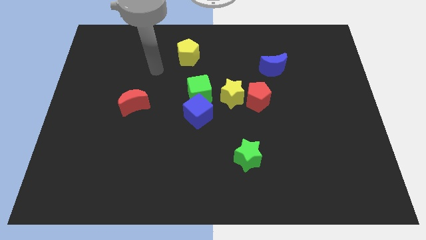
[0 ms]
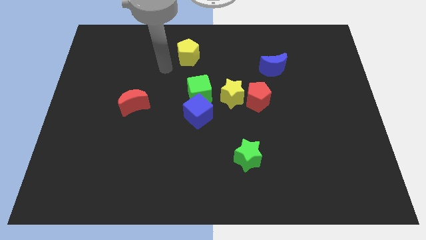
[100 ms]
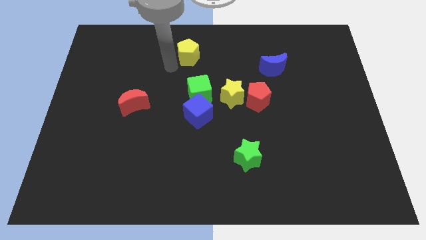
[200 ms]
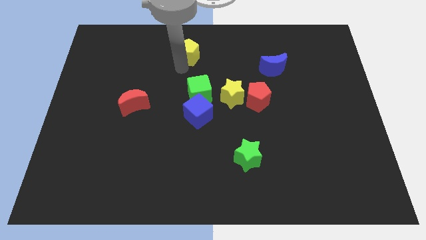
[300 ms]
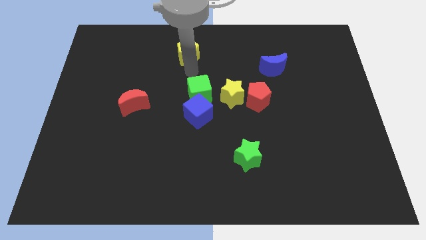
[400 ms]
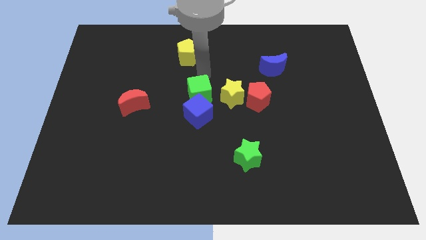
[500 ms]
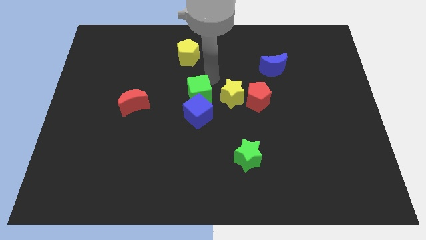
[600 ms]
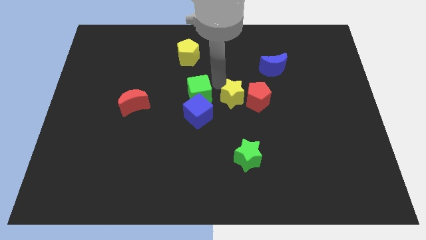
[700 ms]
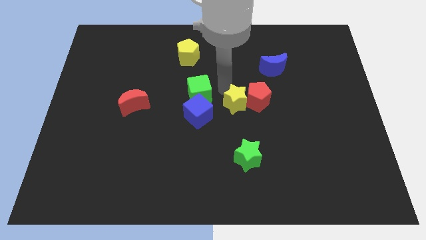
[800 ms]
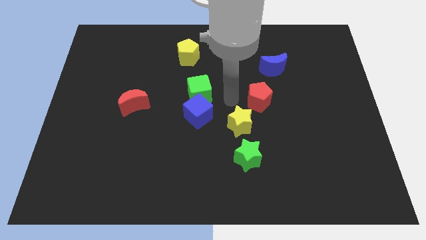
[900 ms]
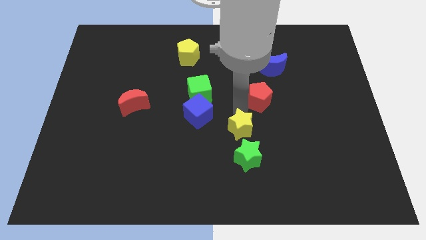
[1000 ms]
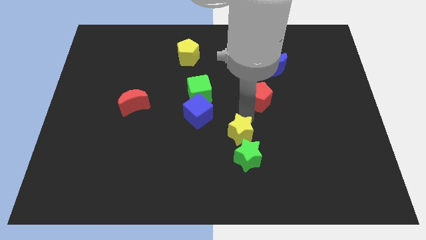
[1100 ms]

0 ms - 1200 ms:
move the red pentagon away from the yellow star

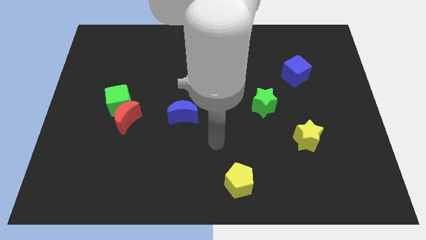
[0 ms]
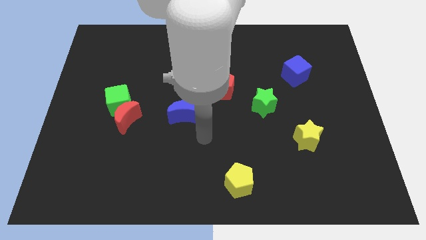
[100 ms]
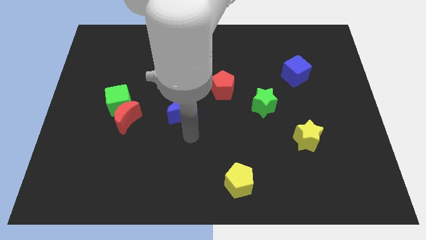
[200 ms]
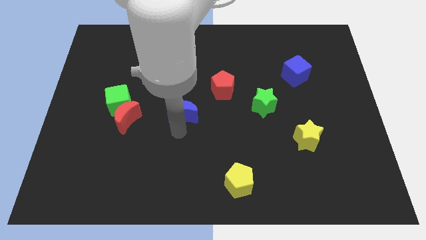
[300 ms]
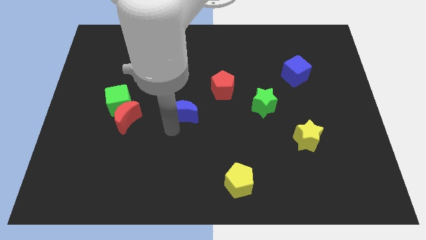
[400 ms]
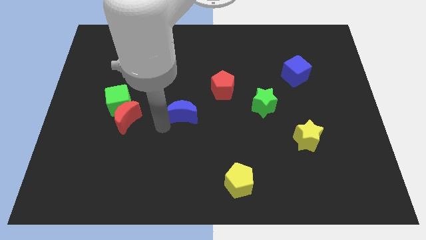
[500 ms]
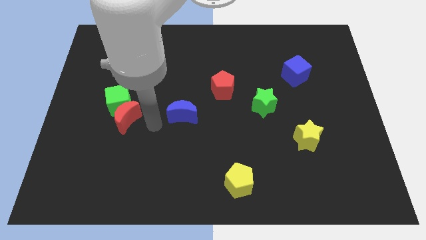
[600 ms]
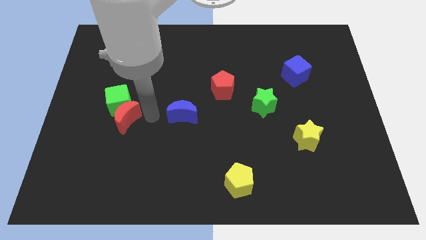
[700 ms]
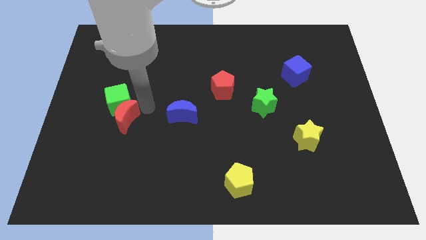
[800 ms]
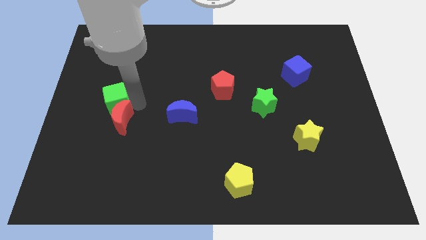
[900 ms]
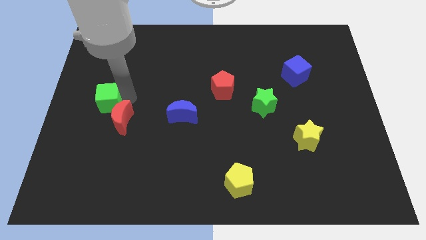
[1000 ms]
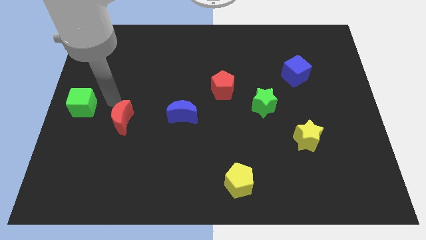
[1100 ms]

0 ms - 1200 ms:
separate the red moon from the green cube

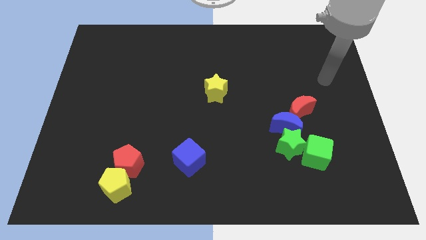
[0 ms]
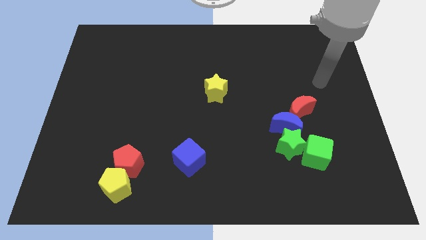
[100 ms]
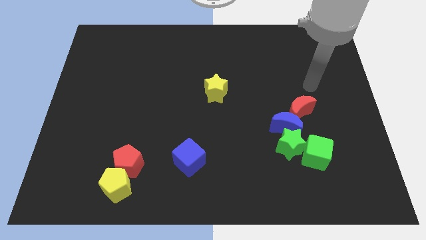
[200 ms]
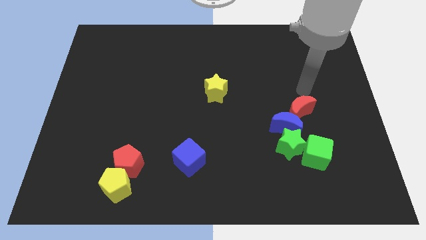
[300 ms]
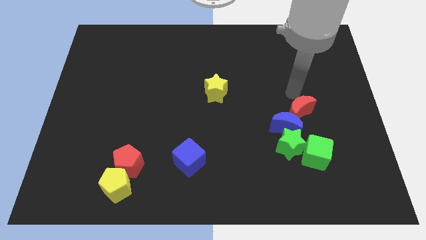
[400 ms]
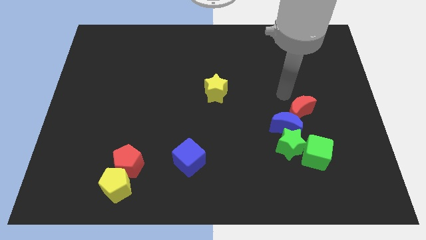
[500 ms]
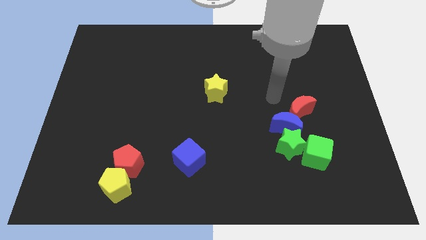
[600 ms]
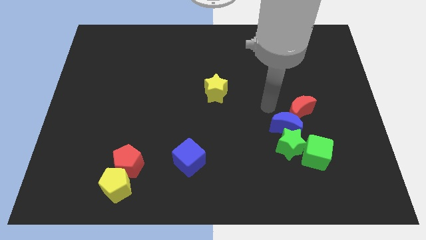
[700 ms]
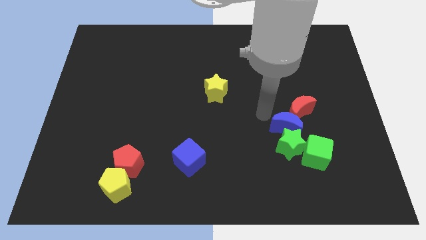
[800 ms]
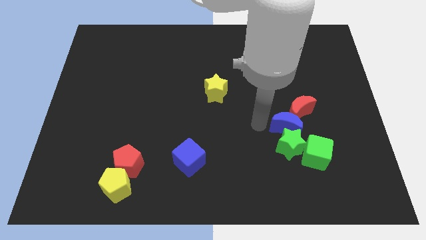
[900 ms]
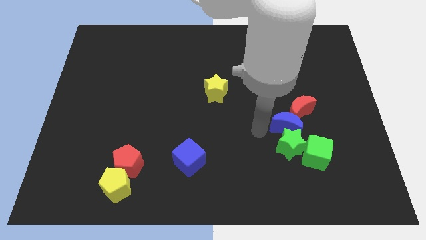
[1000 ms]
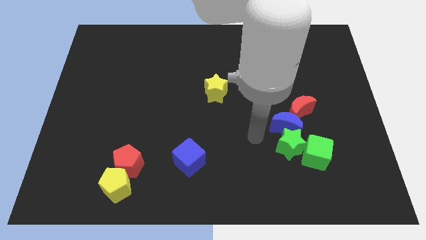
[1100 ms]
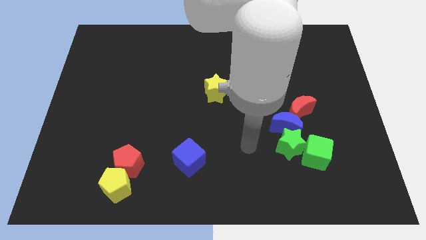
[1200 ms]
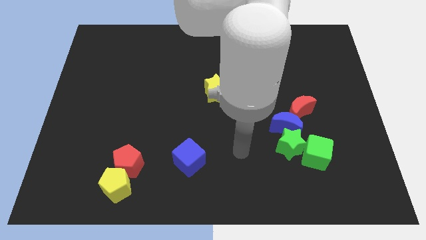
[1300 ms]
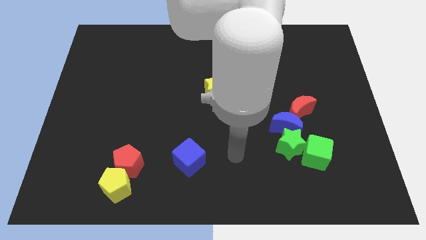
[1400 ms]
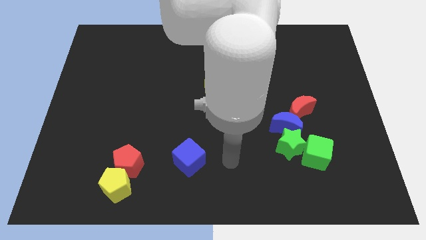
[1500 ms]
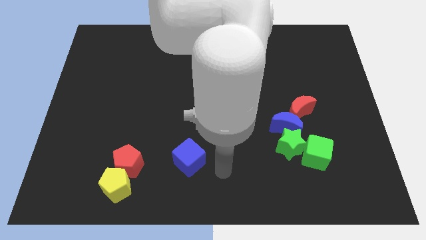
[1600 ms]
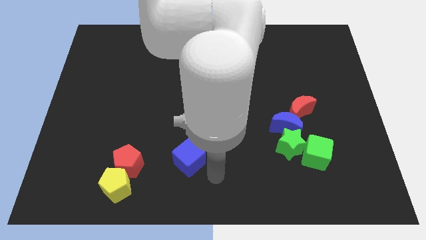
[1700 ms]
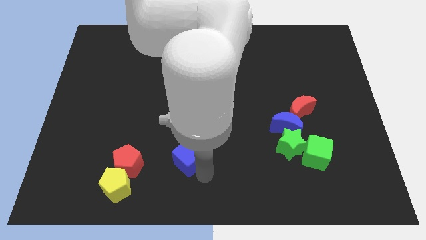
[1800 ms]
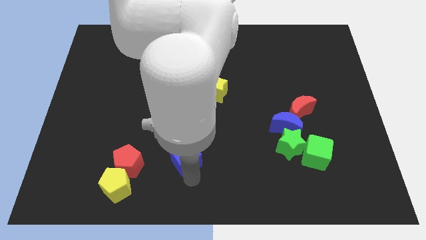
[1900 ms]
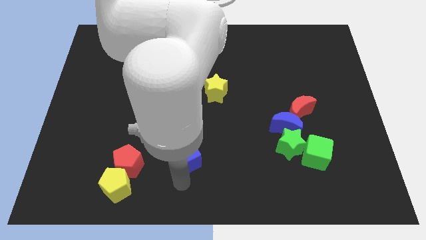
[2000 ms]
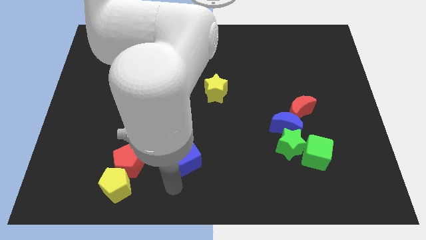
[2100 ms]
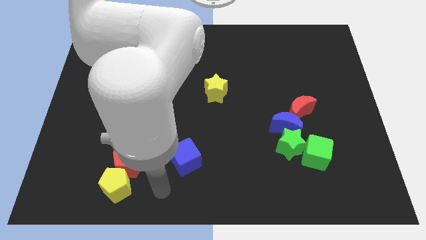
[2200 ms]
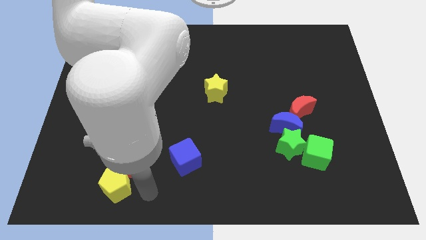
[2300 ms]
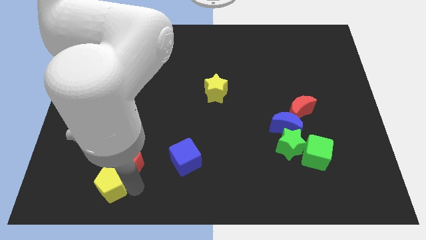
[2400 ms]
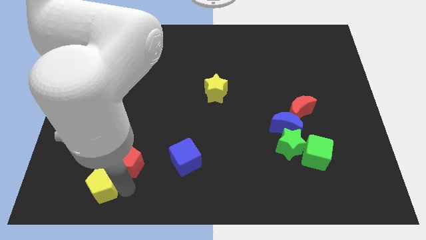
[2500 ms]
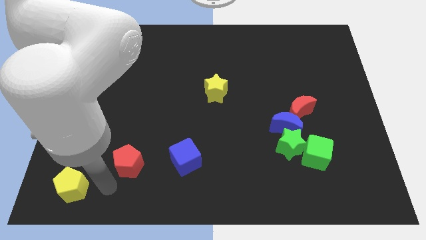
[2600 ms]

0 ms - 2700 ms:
separate the red pentagon from the yellow pentagon

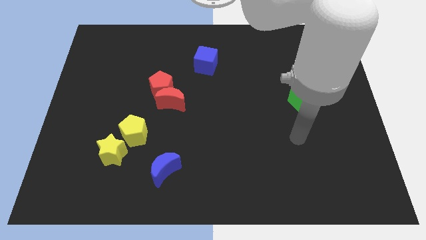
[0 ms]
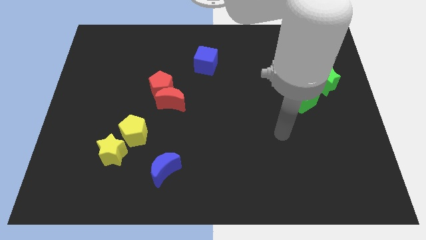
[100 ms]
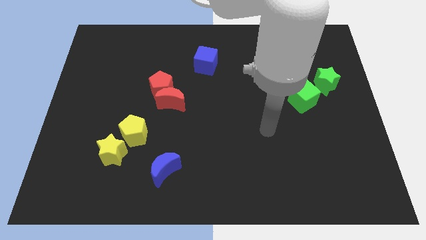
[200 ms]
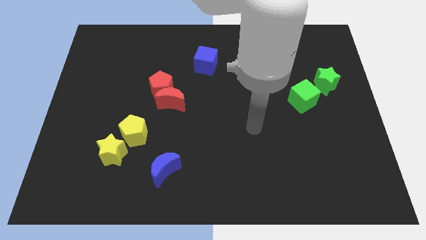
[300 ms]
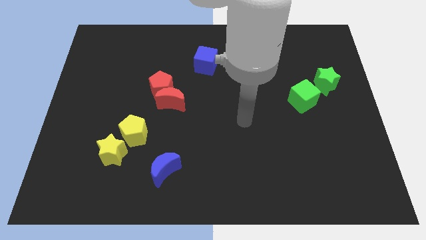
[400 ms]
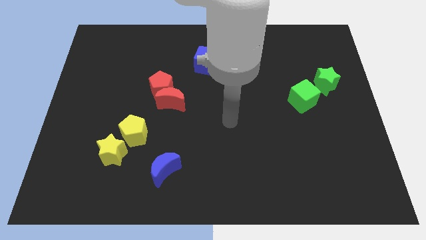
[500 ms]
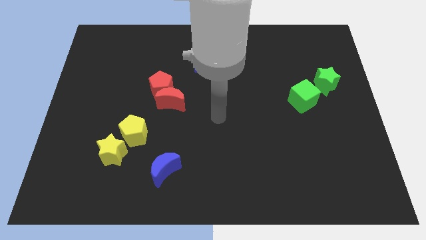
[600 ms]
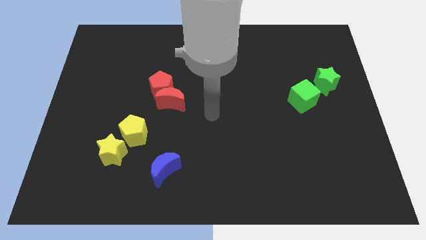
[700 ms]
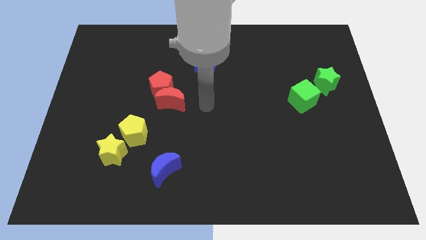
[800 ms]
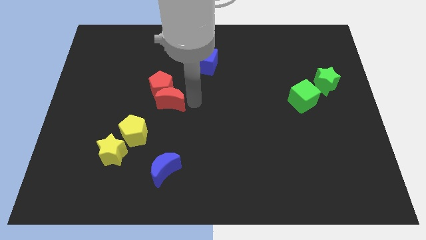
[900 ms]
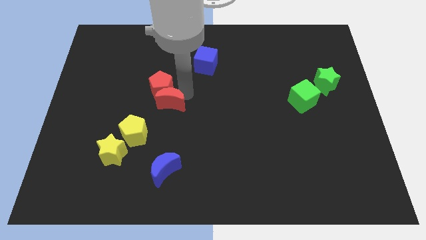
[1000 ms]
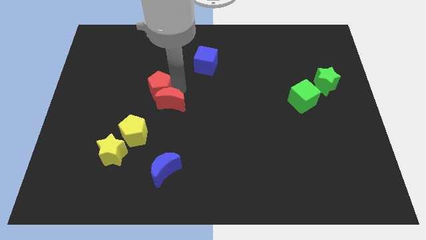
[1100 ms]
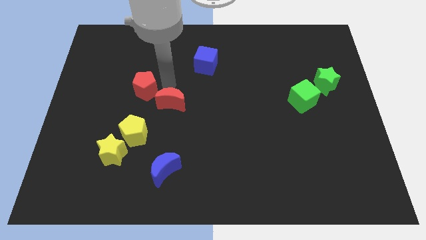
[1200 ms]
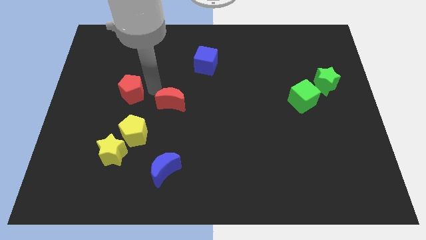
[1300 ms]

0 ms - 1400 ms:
move the red moon away from the red pentagon

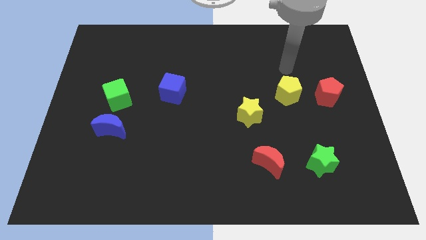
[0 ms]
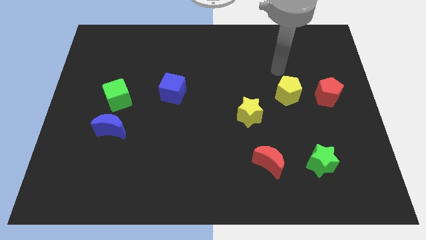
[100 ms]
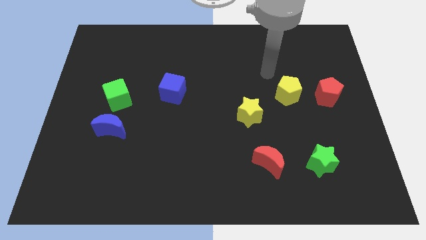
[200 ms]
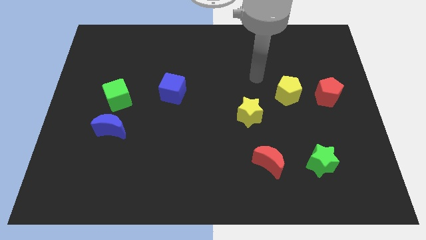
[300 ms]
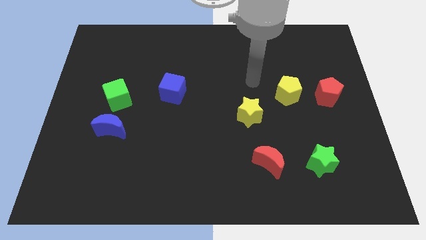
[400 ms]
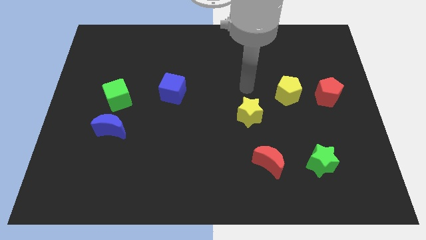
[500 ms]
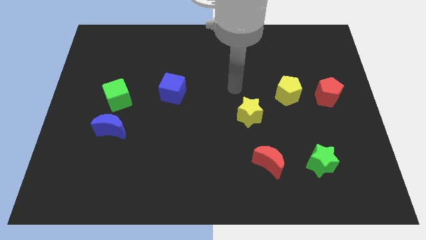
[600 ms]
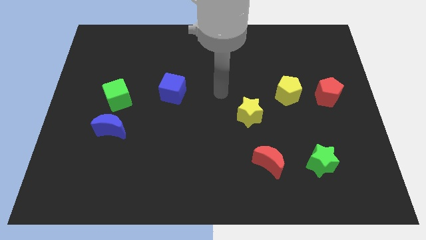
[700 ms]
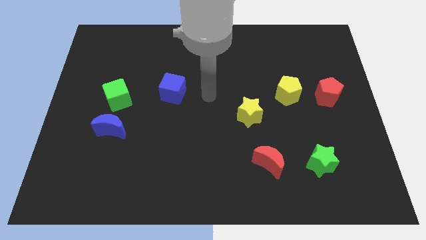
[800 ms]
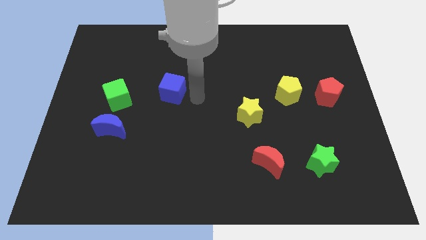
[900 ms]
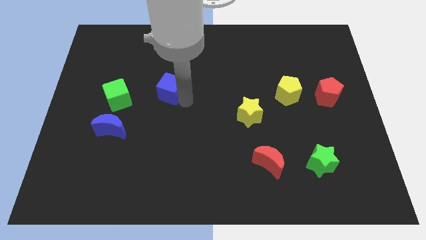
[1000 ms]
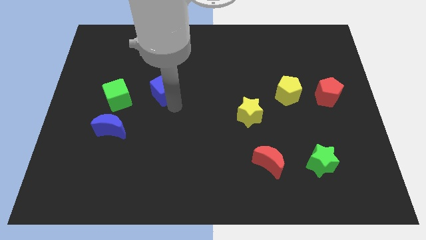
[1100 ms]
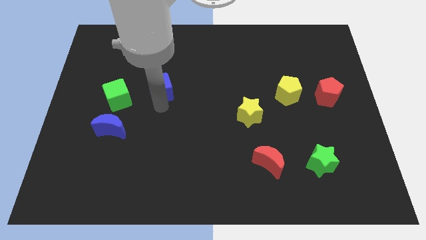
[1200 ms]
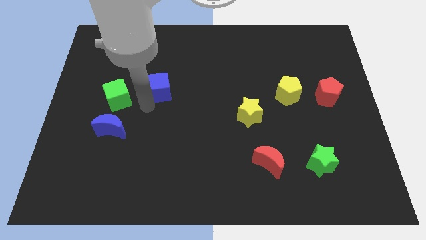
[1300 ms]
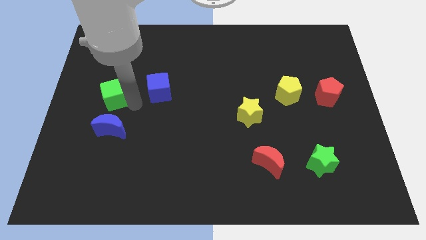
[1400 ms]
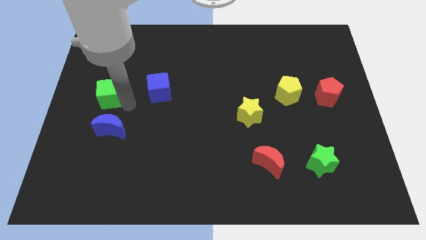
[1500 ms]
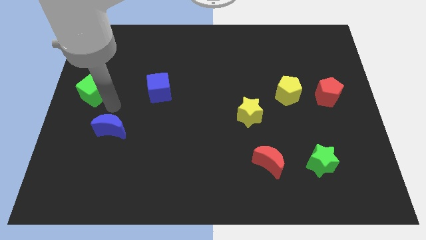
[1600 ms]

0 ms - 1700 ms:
separate the blue moon from the green cube

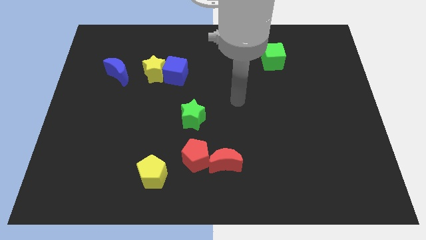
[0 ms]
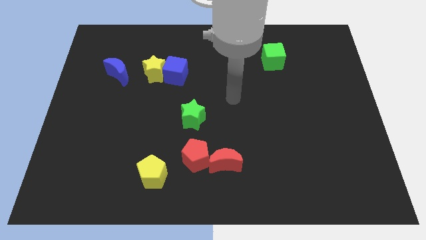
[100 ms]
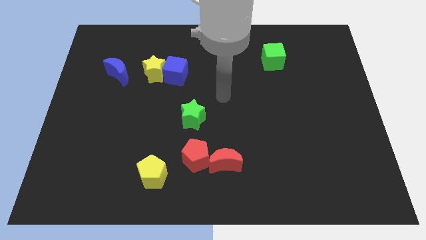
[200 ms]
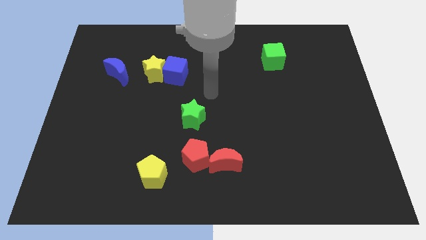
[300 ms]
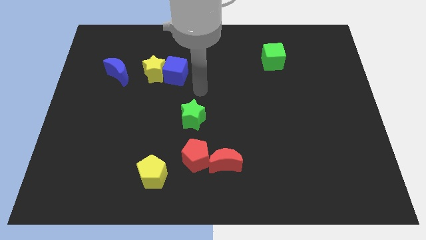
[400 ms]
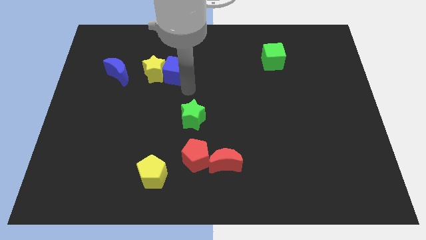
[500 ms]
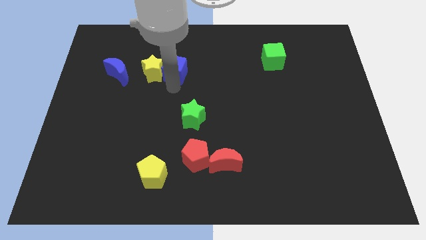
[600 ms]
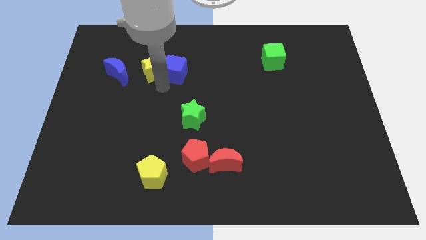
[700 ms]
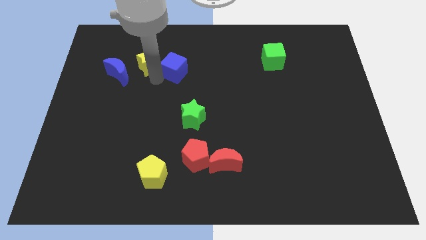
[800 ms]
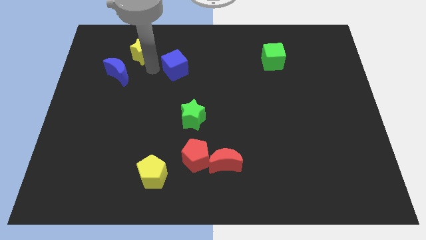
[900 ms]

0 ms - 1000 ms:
separate the blue cube from the yellow star

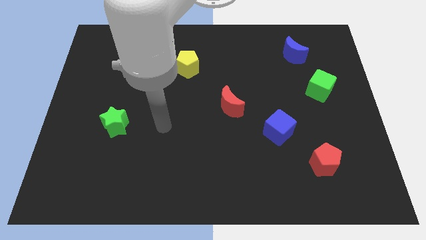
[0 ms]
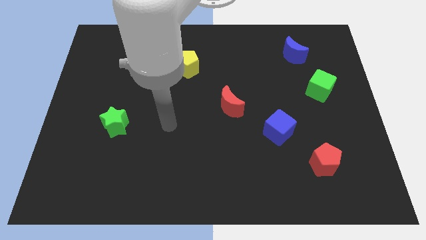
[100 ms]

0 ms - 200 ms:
separate the yellow star from the yellow pentagon
